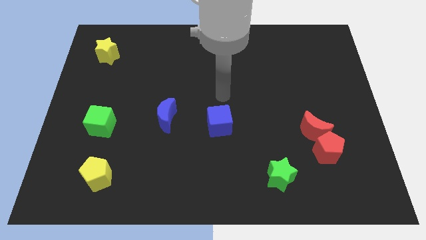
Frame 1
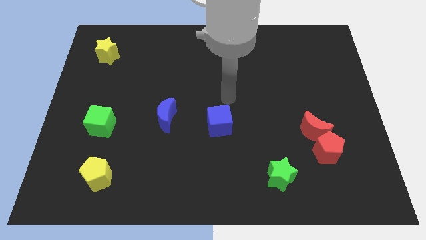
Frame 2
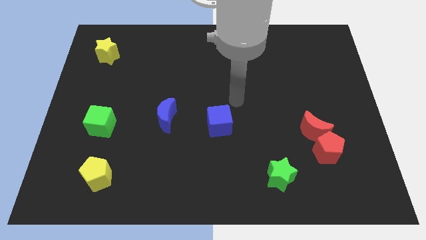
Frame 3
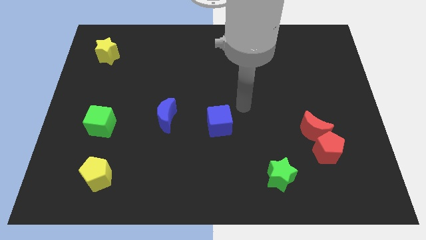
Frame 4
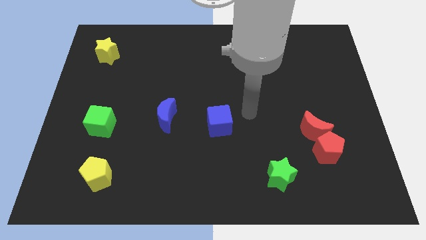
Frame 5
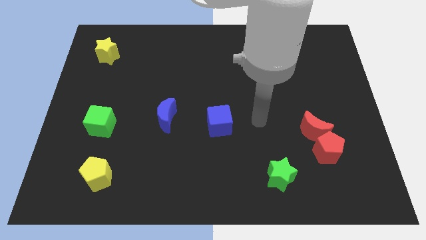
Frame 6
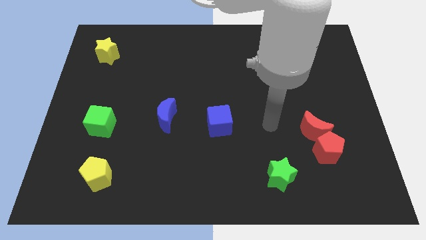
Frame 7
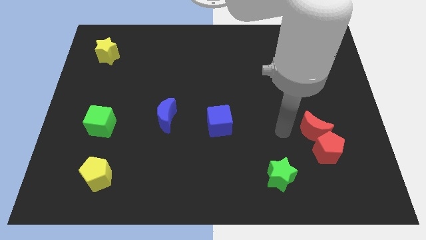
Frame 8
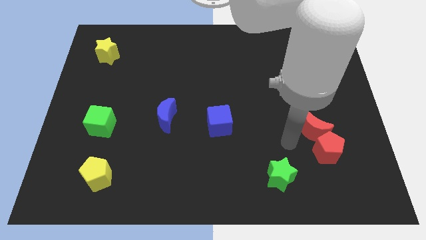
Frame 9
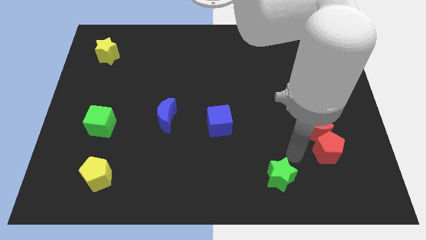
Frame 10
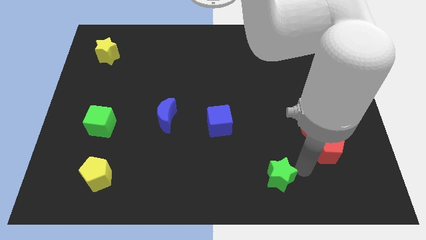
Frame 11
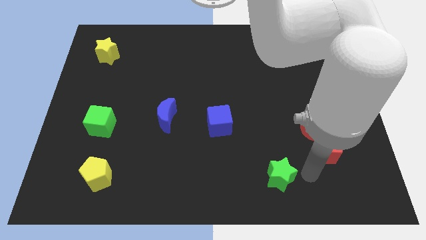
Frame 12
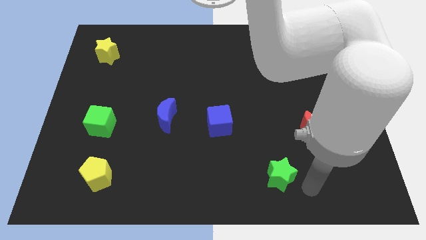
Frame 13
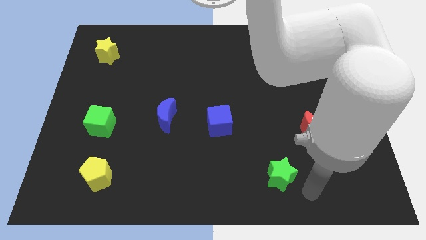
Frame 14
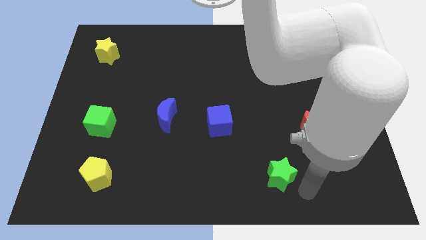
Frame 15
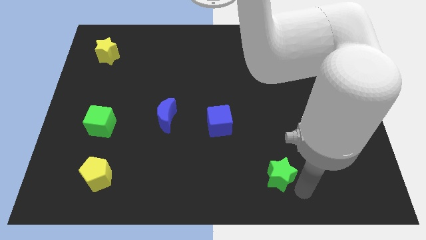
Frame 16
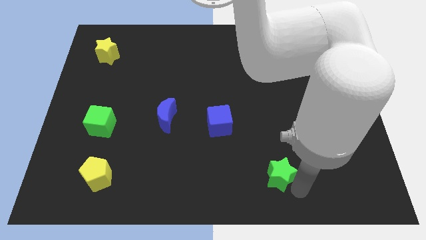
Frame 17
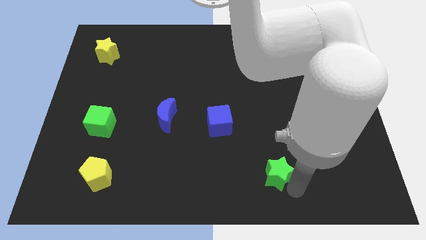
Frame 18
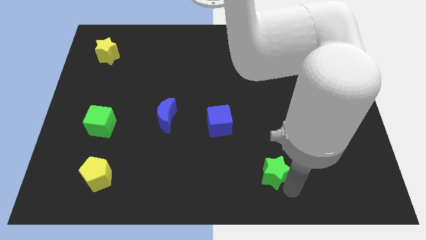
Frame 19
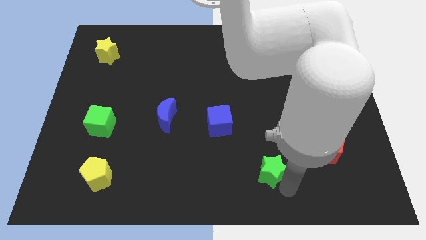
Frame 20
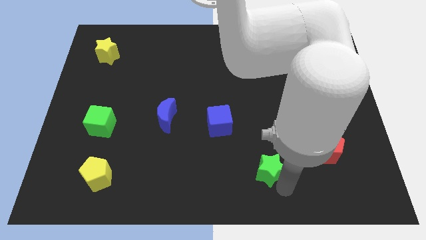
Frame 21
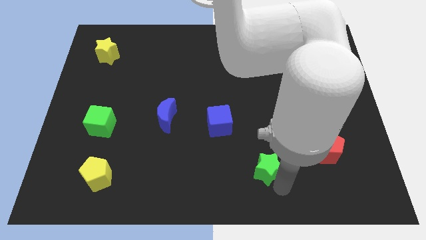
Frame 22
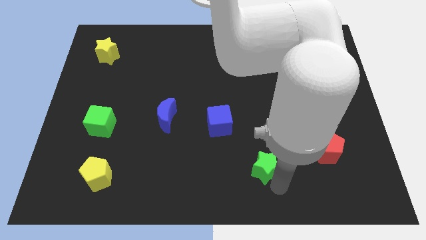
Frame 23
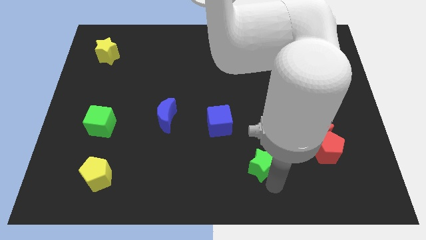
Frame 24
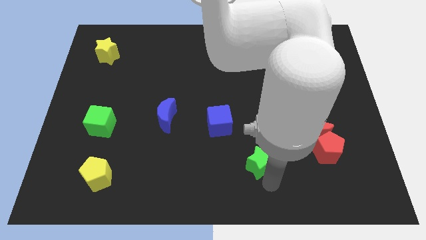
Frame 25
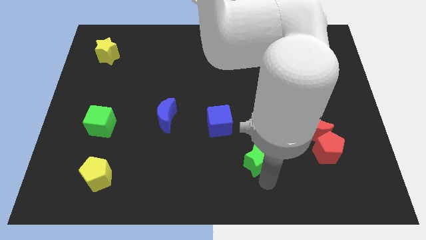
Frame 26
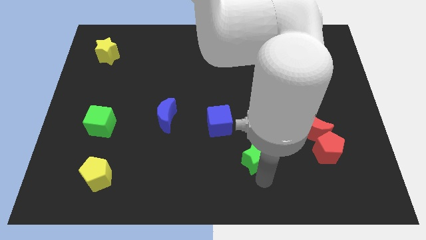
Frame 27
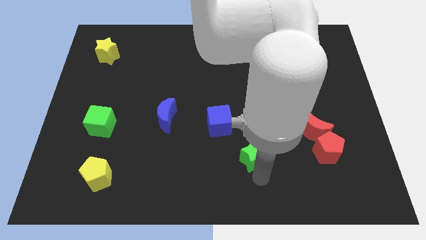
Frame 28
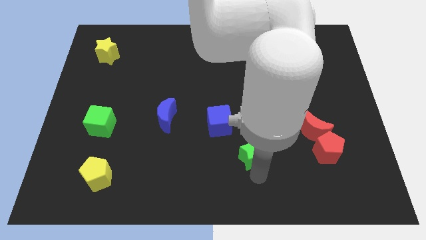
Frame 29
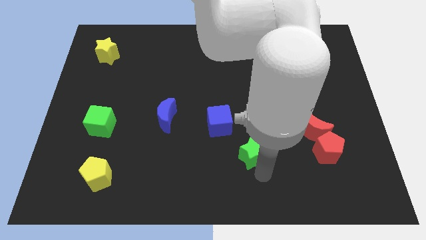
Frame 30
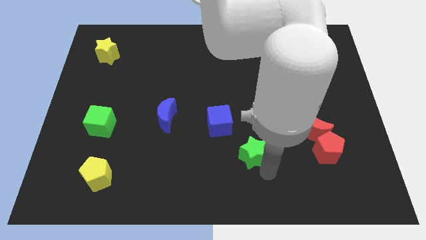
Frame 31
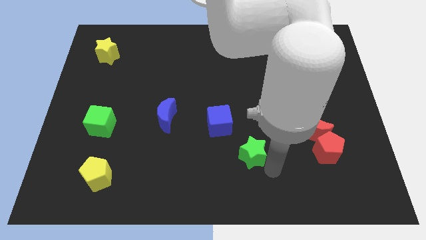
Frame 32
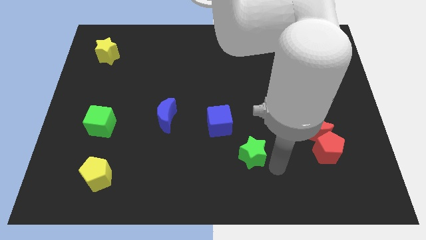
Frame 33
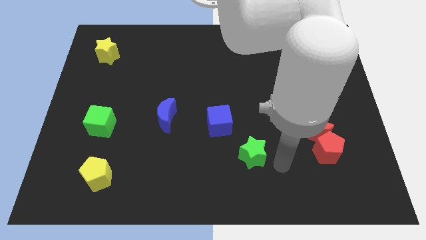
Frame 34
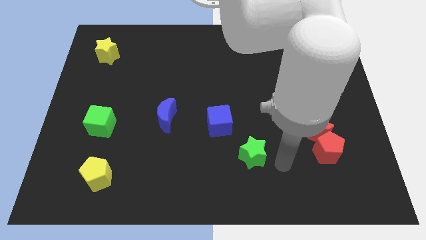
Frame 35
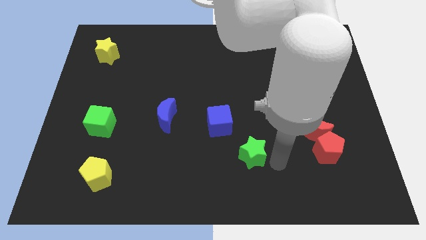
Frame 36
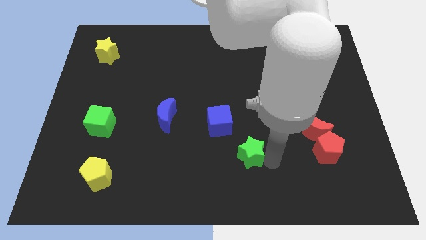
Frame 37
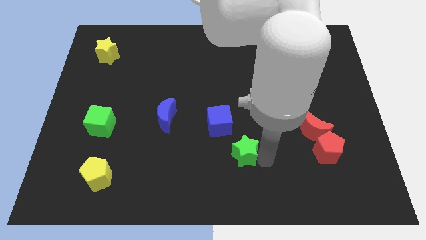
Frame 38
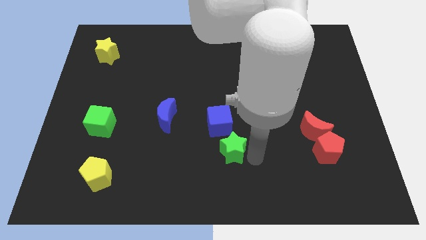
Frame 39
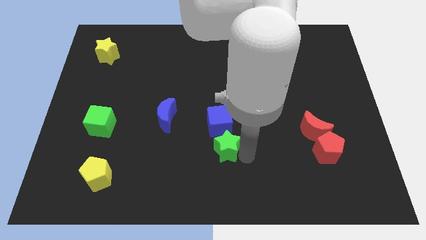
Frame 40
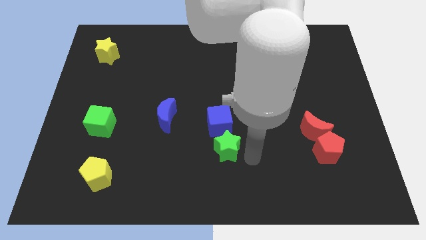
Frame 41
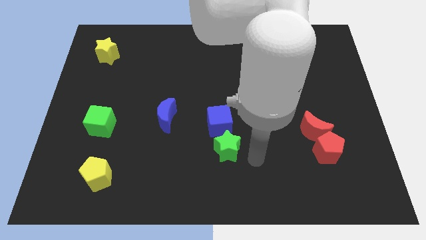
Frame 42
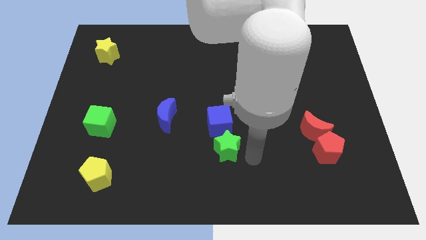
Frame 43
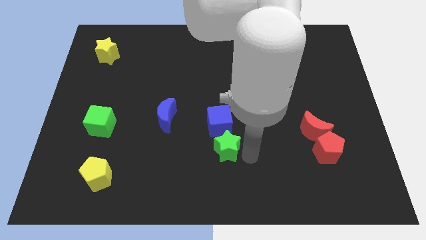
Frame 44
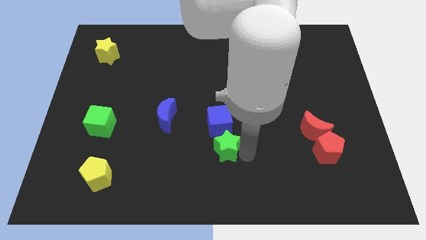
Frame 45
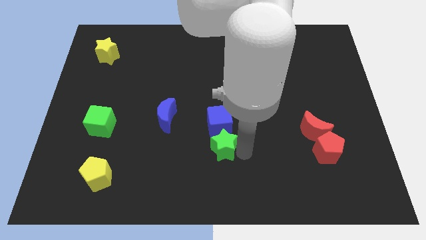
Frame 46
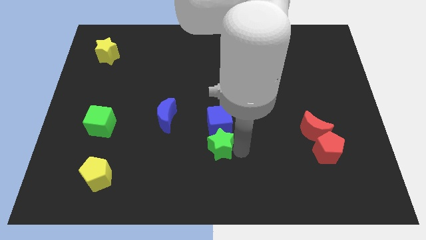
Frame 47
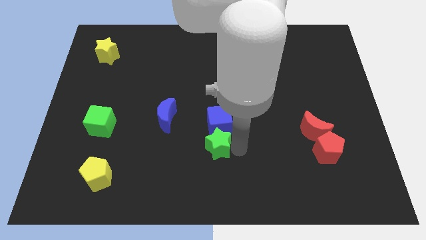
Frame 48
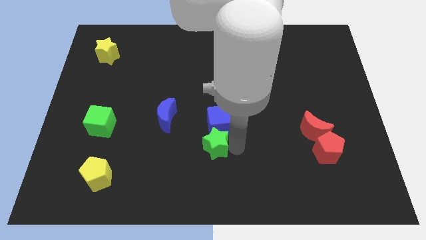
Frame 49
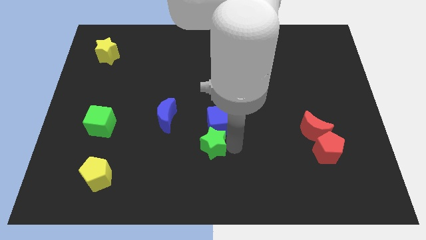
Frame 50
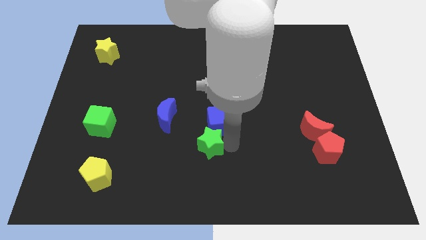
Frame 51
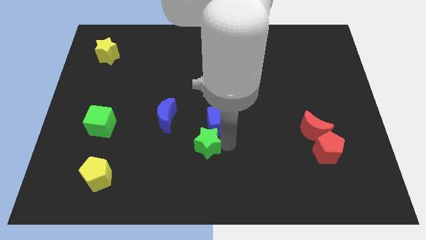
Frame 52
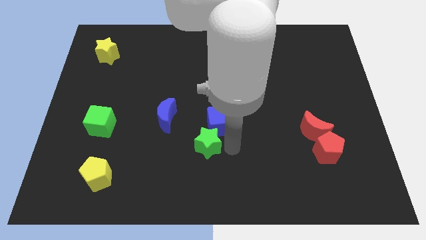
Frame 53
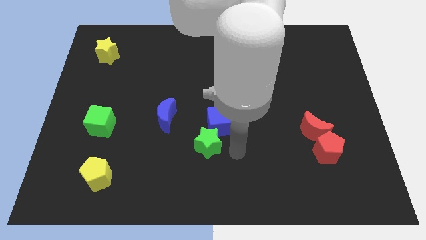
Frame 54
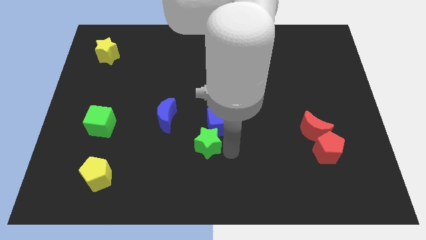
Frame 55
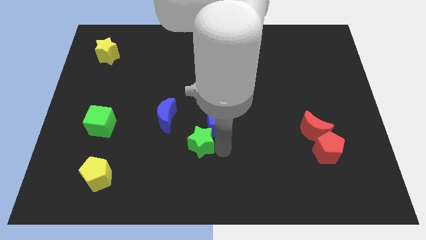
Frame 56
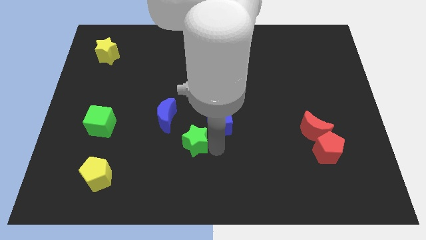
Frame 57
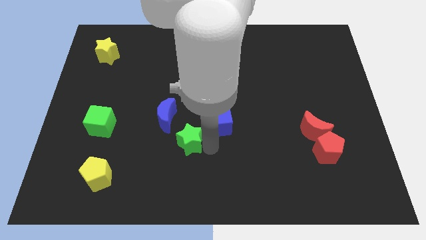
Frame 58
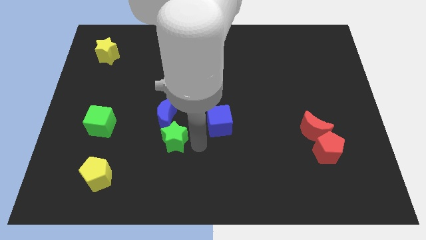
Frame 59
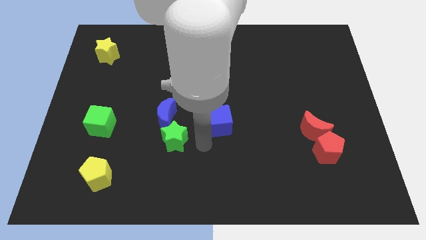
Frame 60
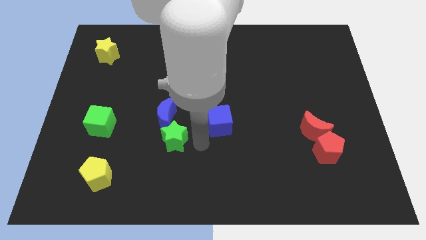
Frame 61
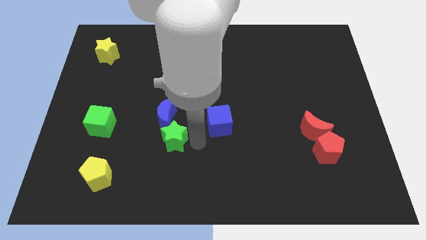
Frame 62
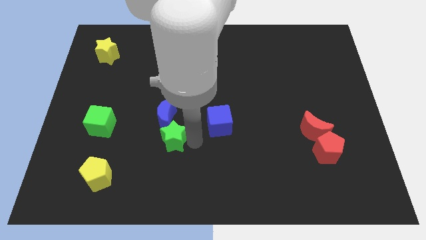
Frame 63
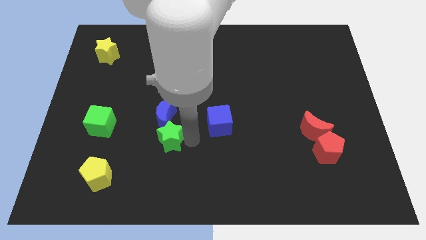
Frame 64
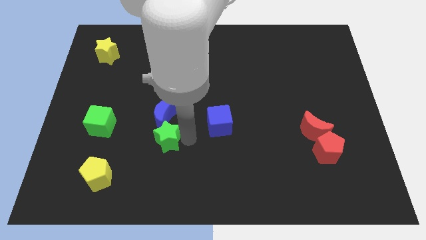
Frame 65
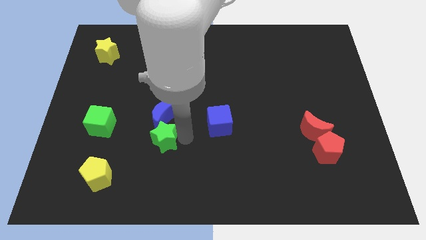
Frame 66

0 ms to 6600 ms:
push the green star diagonally down and to the left of the blue moon
